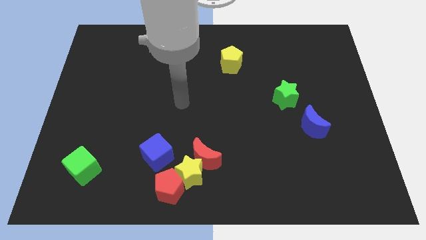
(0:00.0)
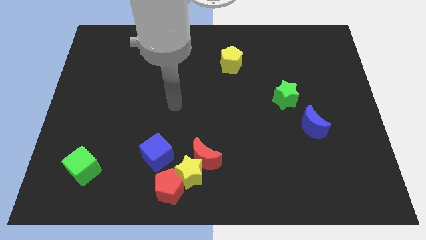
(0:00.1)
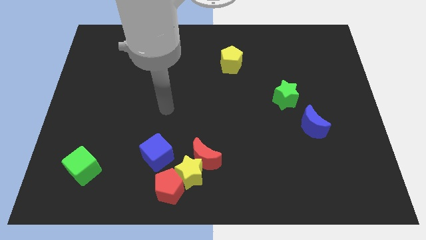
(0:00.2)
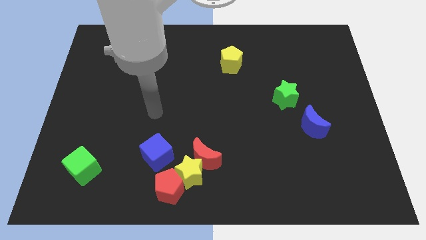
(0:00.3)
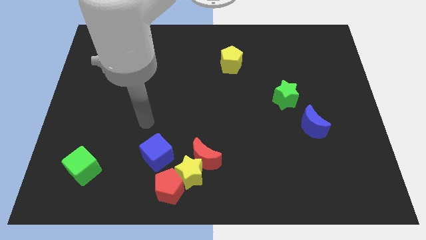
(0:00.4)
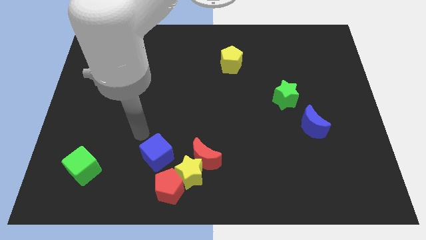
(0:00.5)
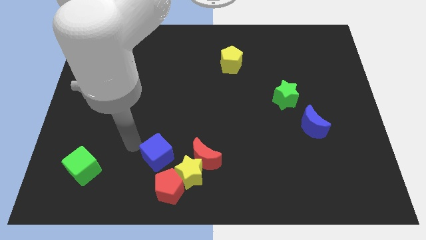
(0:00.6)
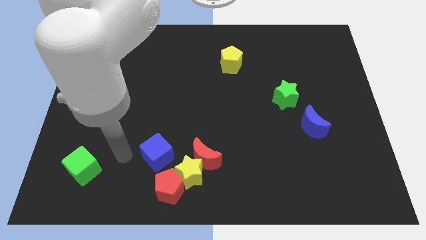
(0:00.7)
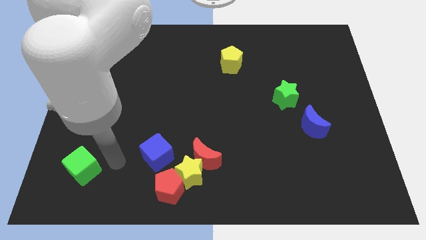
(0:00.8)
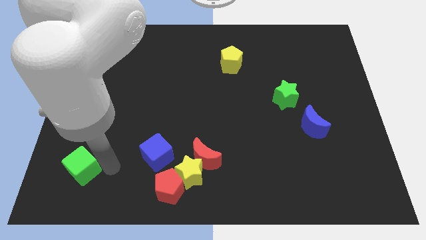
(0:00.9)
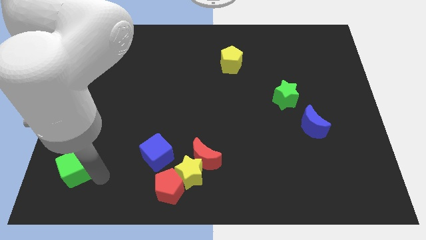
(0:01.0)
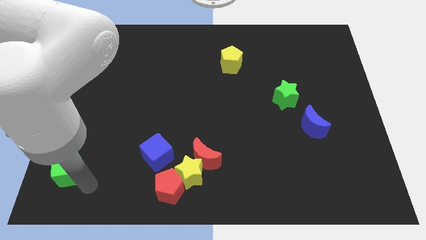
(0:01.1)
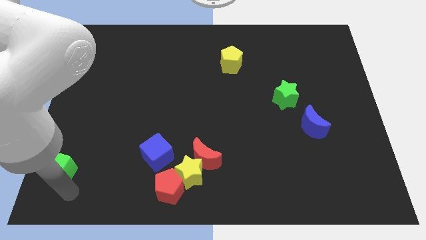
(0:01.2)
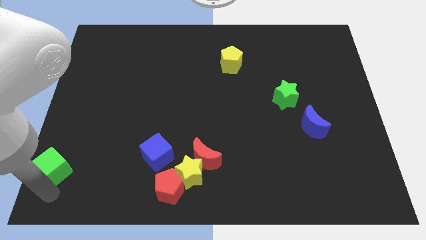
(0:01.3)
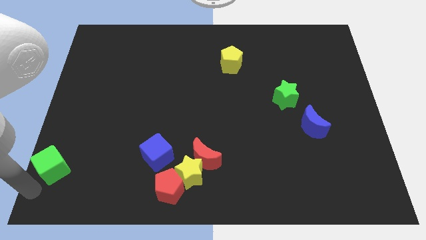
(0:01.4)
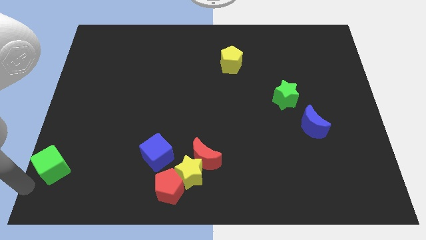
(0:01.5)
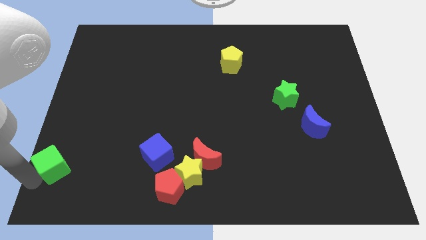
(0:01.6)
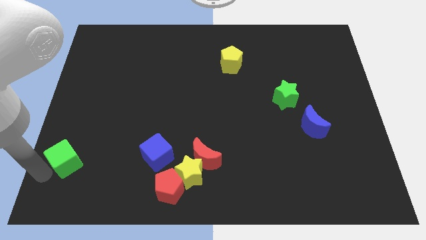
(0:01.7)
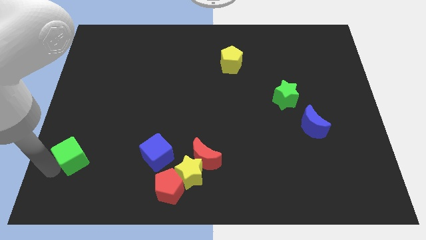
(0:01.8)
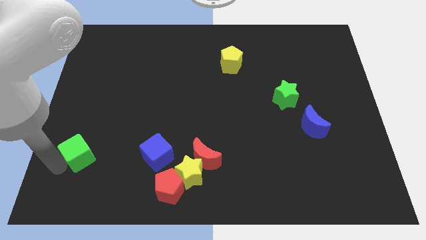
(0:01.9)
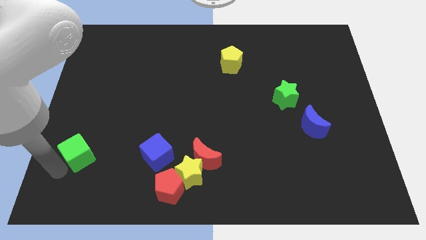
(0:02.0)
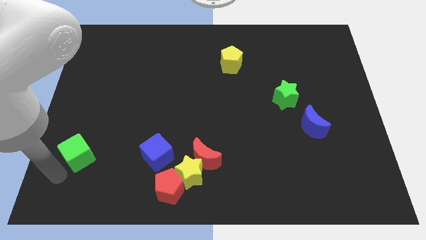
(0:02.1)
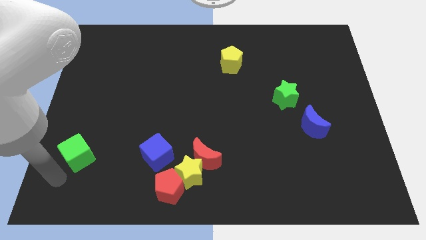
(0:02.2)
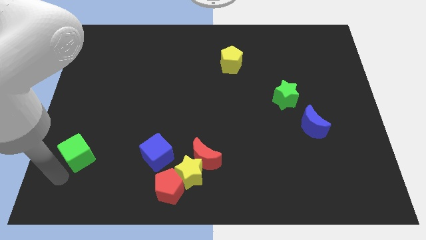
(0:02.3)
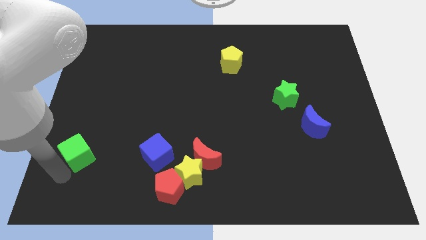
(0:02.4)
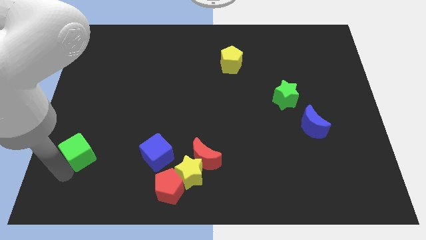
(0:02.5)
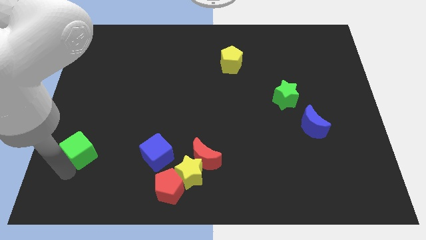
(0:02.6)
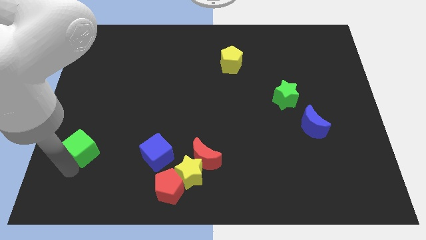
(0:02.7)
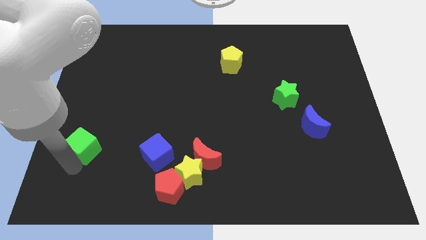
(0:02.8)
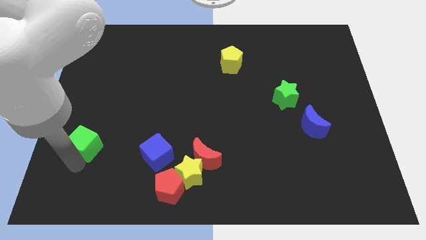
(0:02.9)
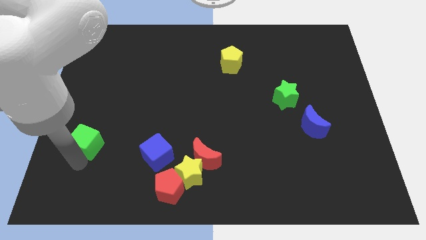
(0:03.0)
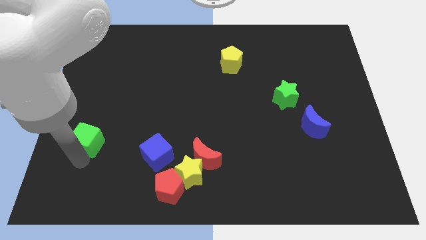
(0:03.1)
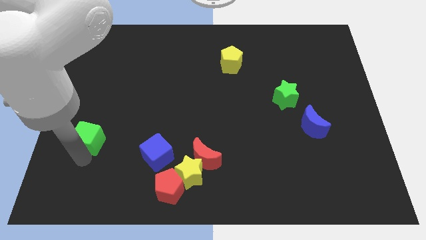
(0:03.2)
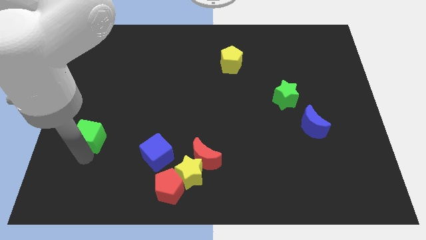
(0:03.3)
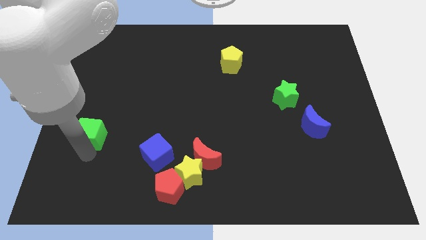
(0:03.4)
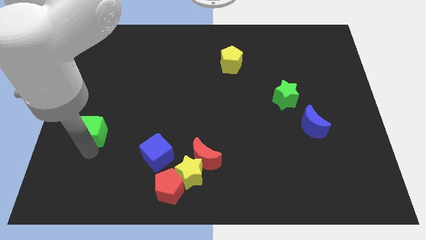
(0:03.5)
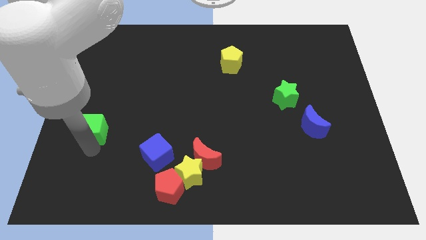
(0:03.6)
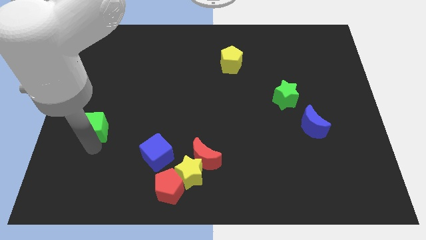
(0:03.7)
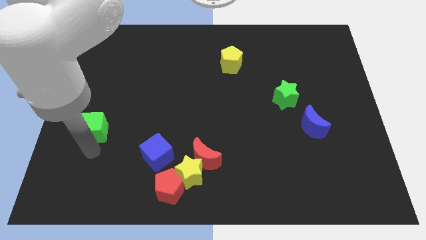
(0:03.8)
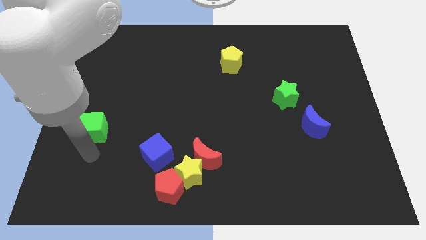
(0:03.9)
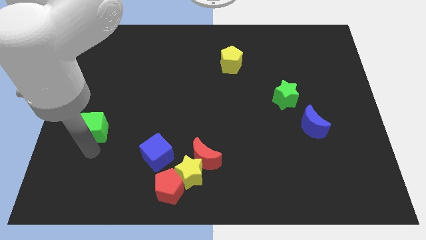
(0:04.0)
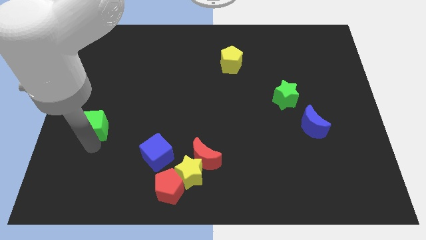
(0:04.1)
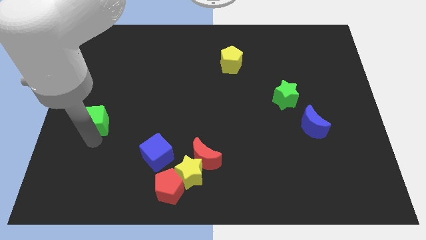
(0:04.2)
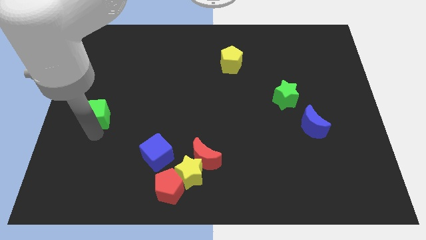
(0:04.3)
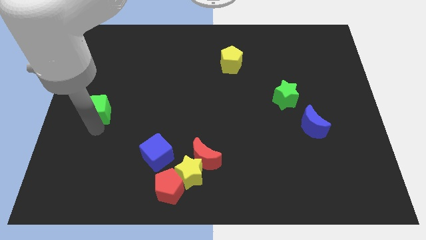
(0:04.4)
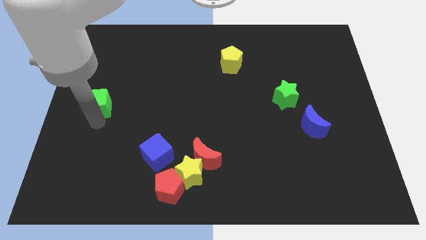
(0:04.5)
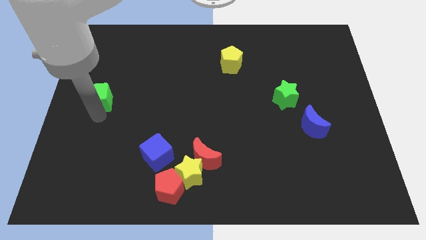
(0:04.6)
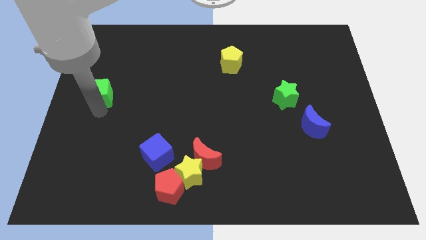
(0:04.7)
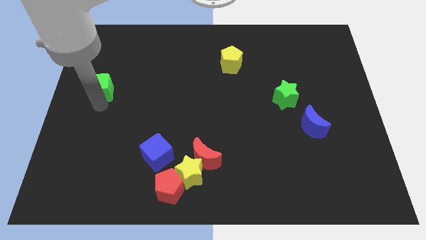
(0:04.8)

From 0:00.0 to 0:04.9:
slide the green cube up

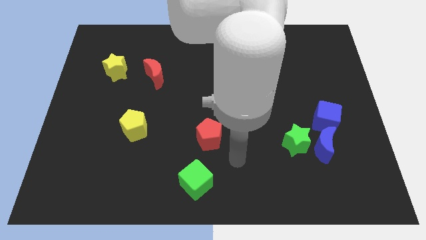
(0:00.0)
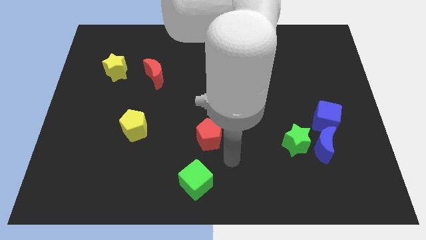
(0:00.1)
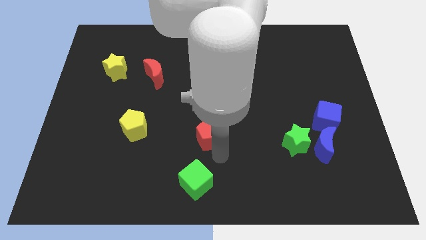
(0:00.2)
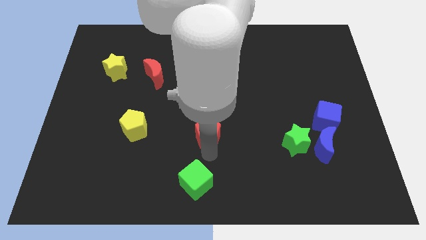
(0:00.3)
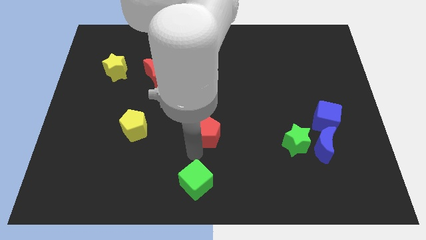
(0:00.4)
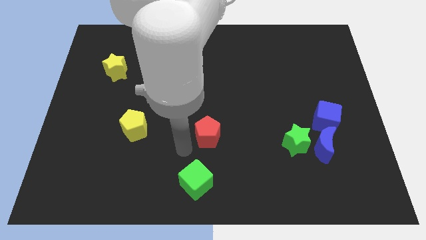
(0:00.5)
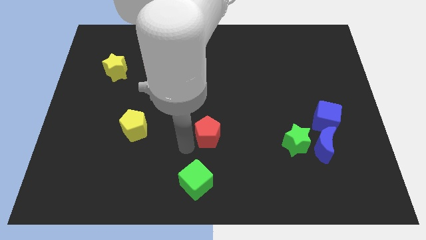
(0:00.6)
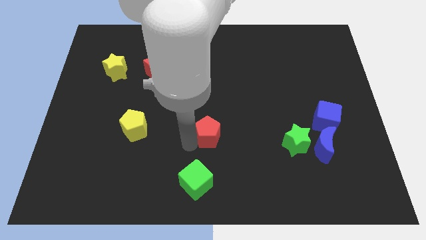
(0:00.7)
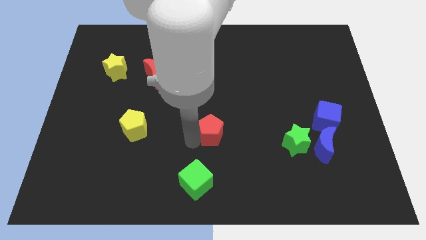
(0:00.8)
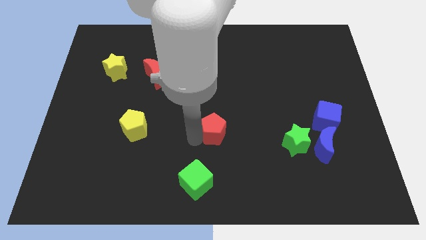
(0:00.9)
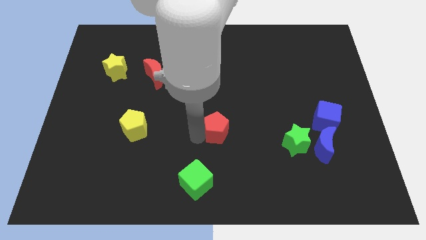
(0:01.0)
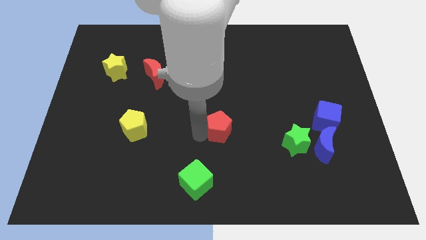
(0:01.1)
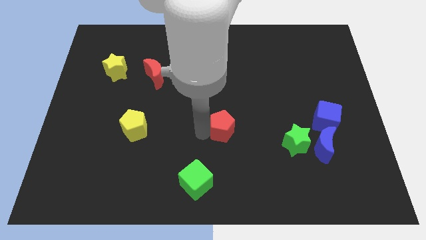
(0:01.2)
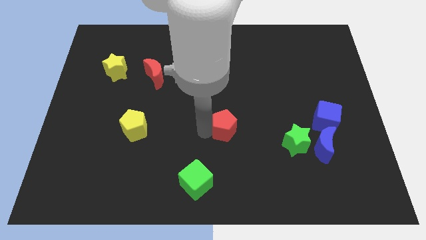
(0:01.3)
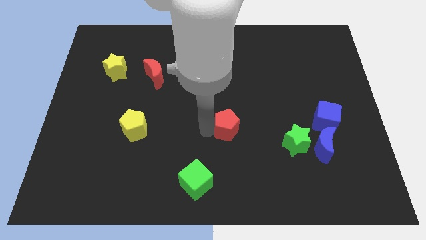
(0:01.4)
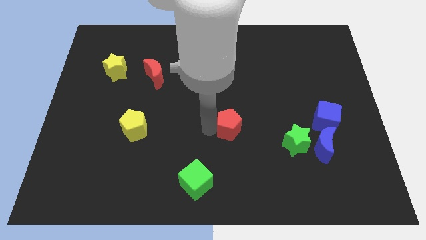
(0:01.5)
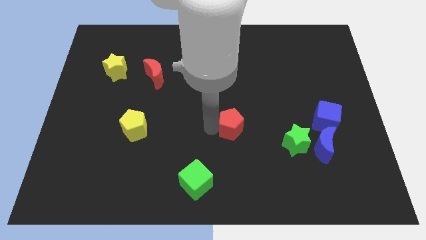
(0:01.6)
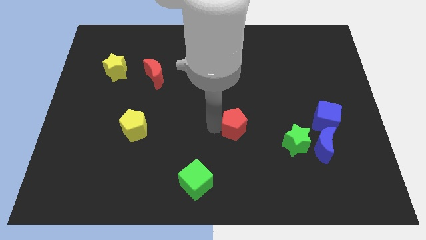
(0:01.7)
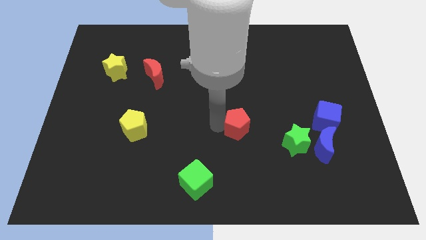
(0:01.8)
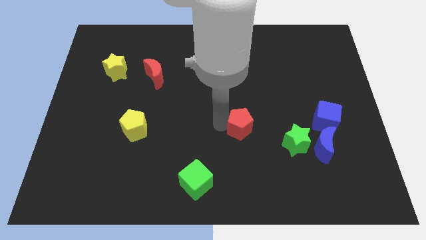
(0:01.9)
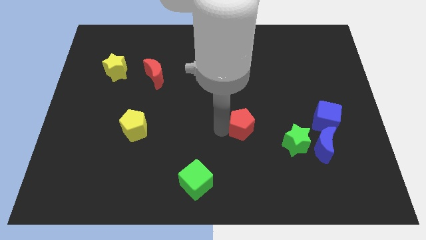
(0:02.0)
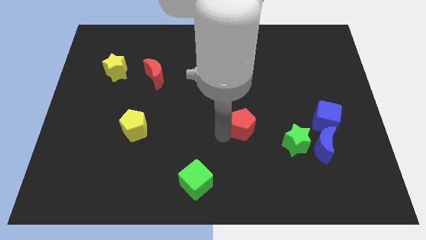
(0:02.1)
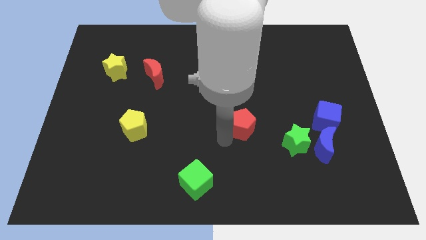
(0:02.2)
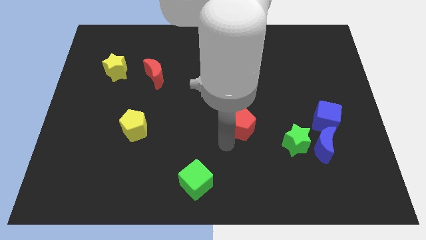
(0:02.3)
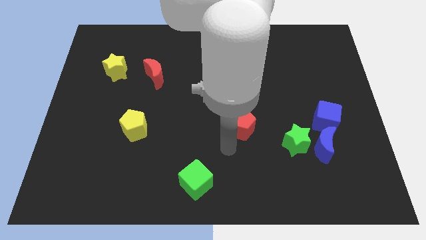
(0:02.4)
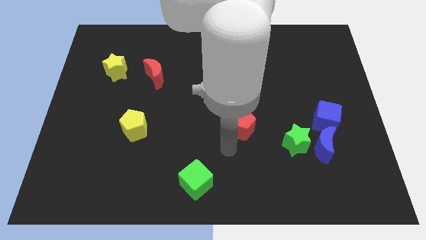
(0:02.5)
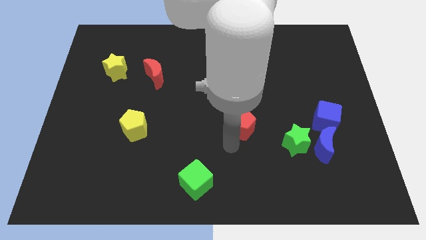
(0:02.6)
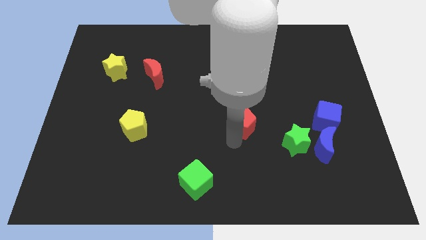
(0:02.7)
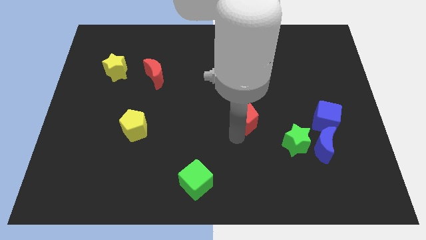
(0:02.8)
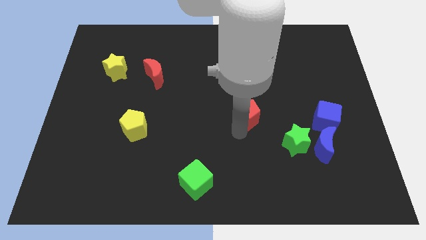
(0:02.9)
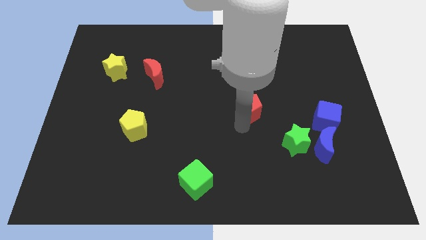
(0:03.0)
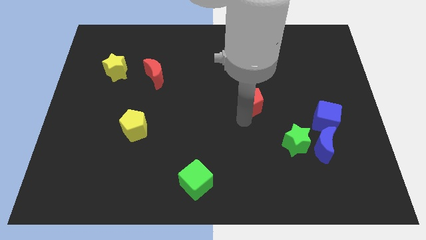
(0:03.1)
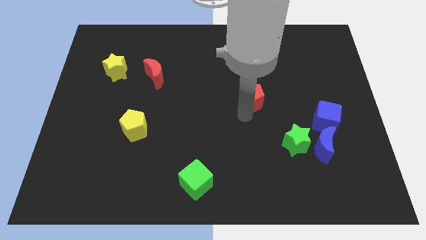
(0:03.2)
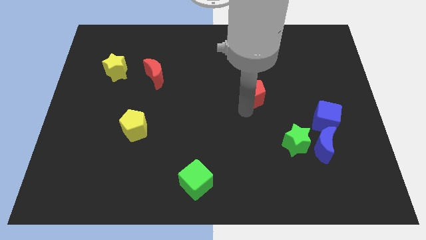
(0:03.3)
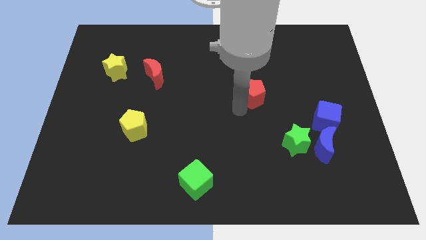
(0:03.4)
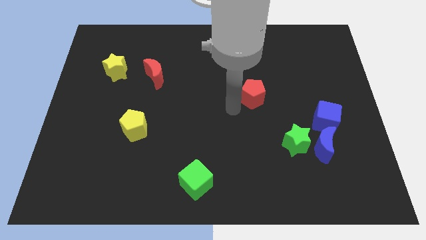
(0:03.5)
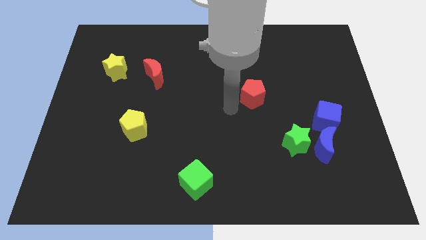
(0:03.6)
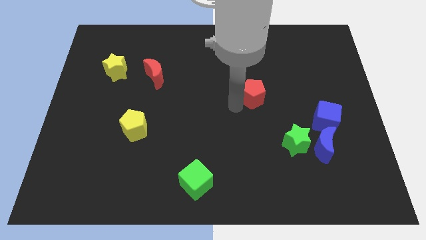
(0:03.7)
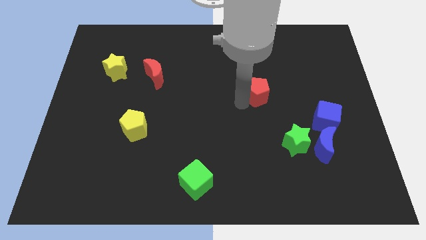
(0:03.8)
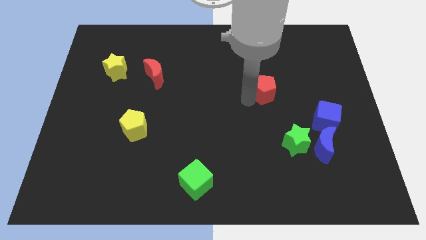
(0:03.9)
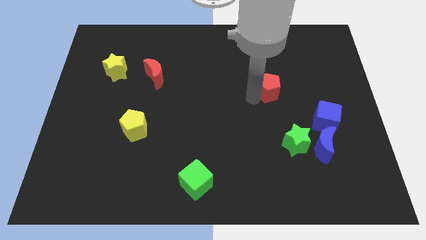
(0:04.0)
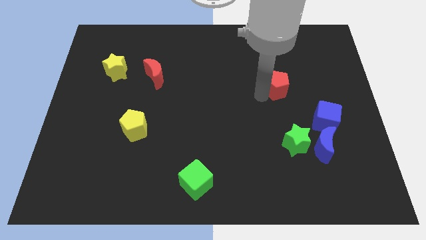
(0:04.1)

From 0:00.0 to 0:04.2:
slide the red pentagon upwards and then right
